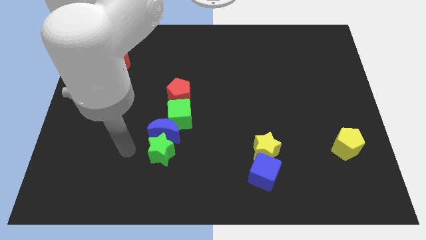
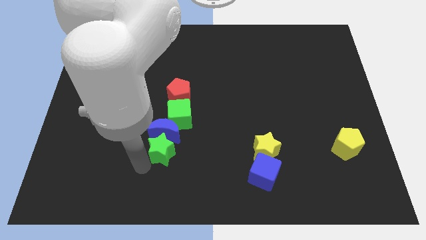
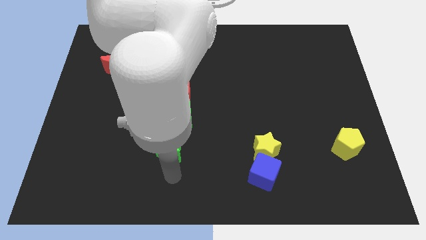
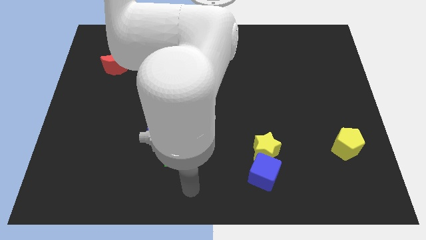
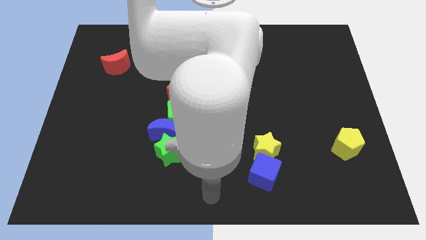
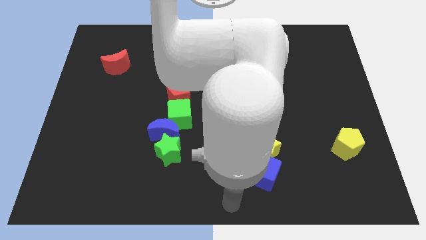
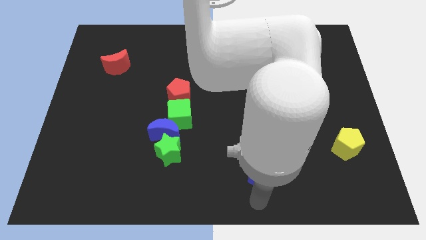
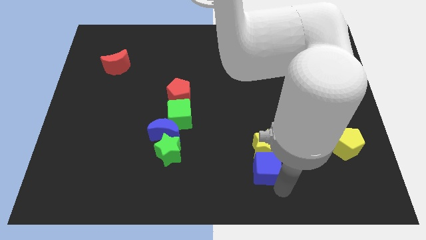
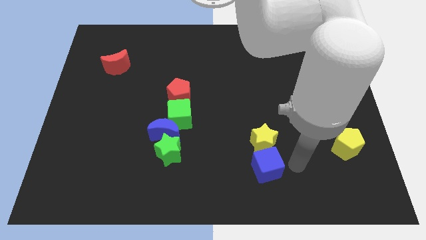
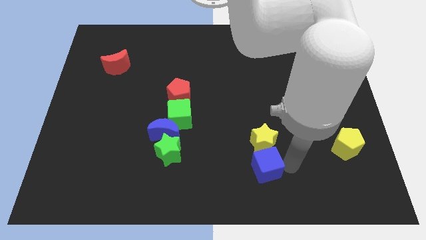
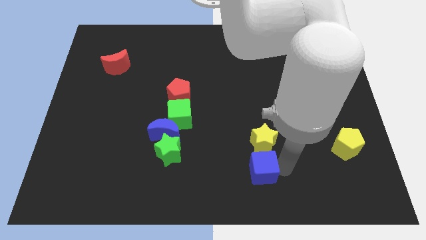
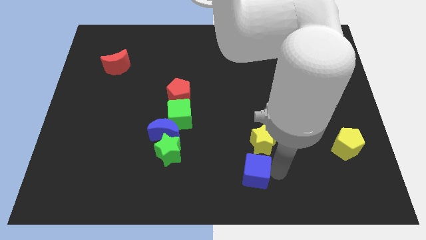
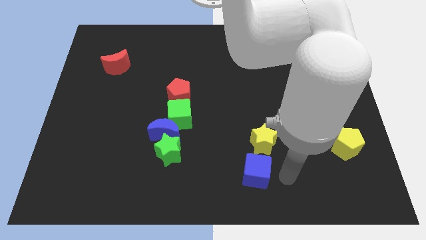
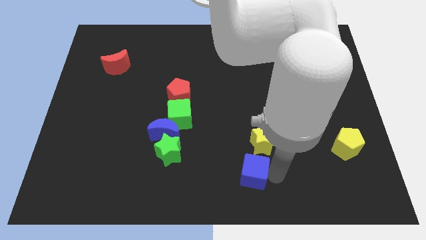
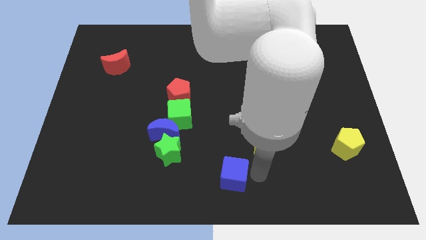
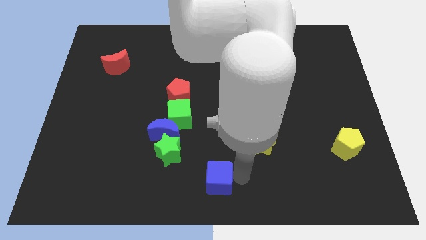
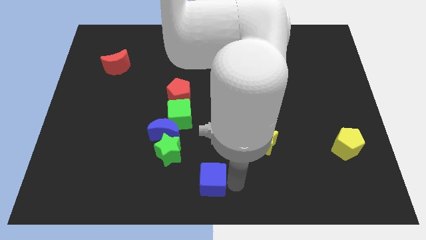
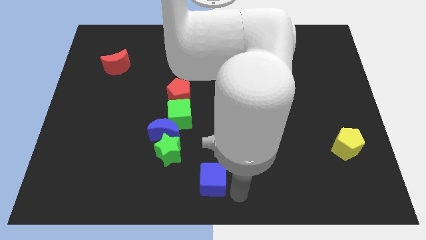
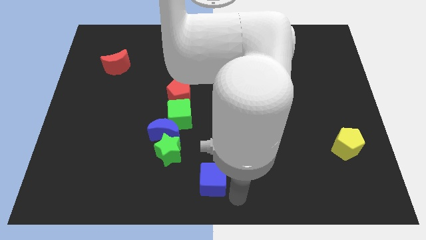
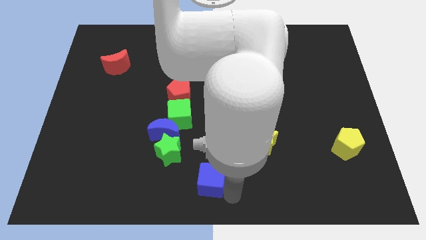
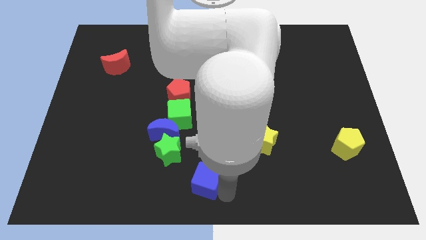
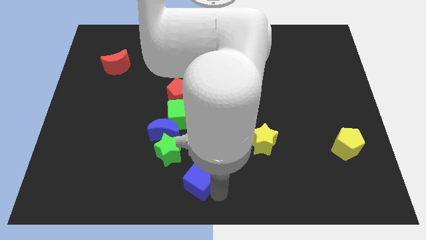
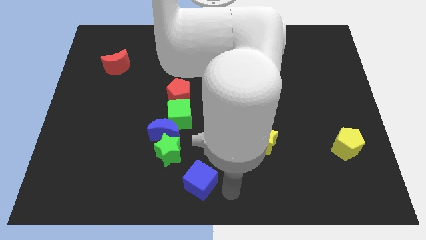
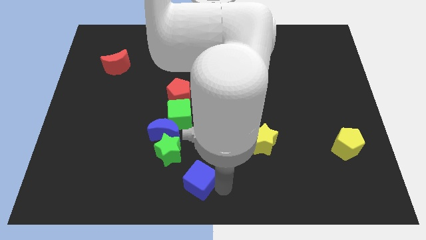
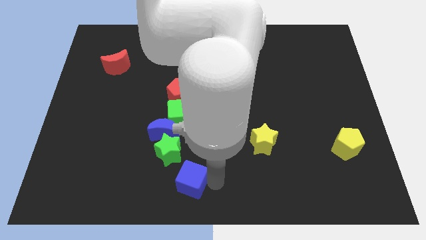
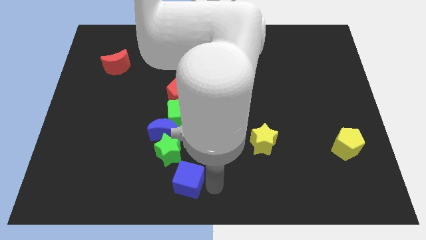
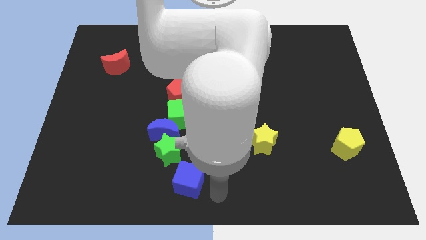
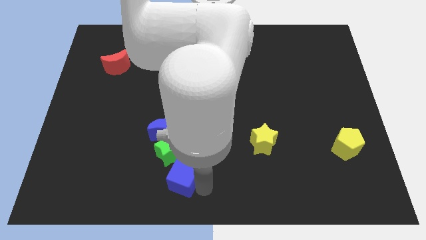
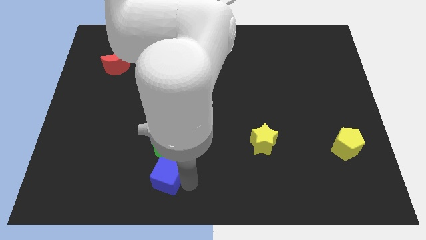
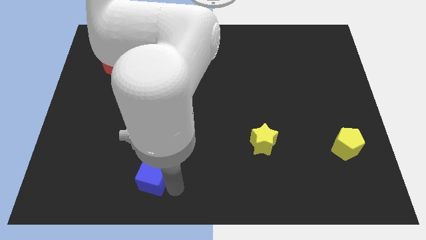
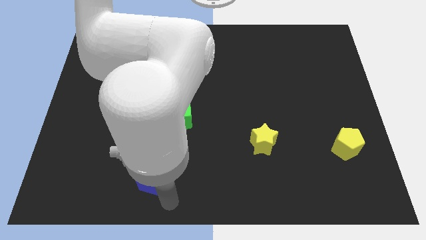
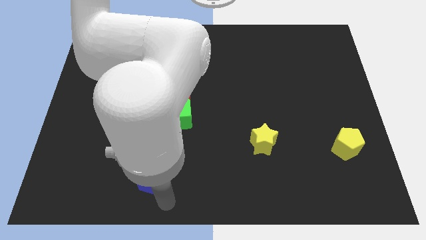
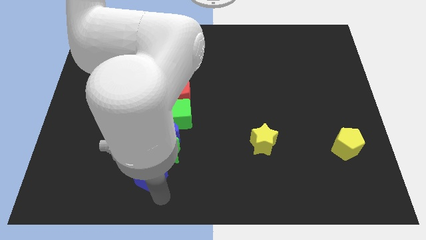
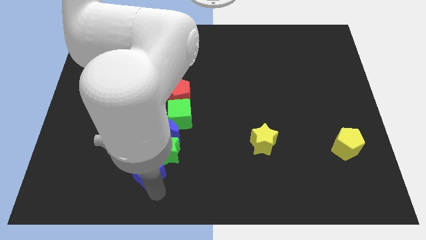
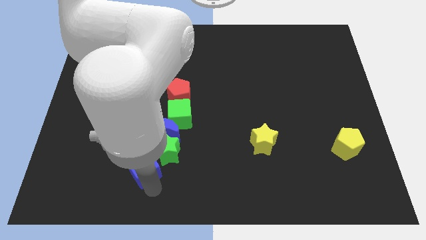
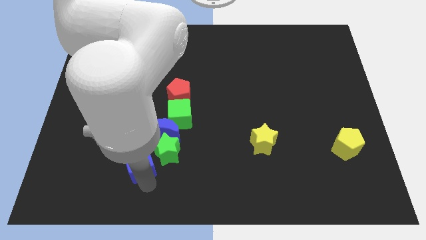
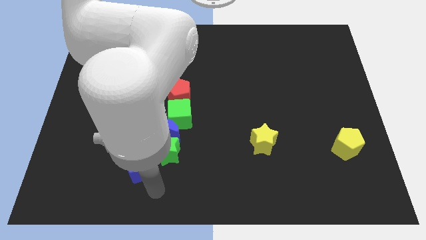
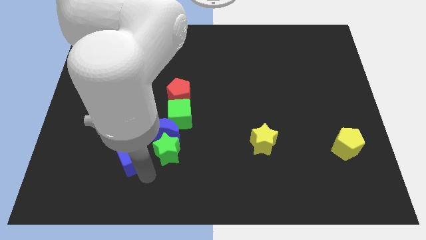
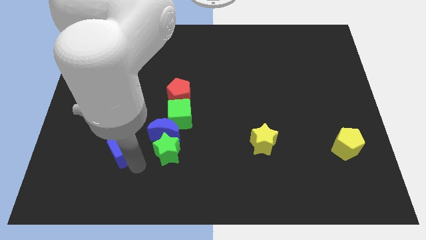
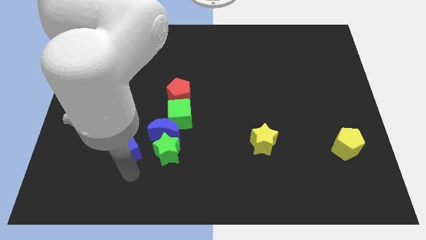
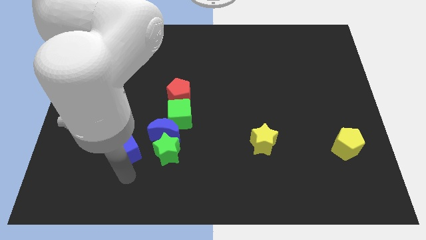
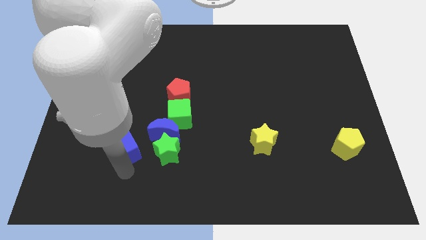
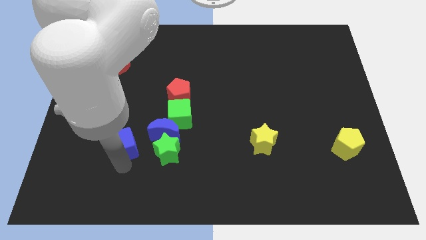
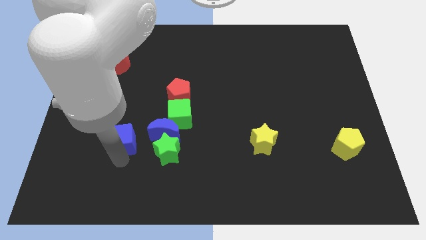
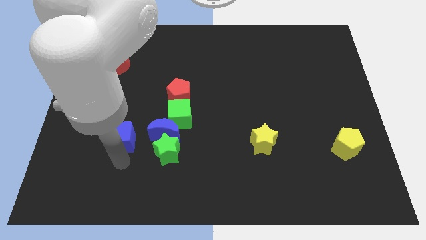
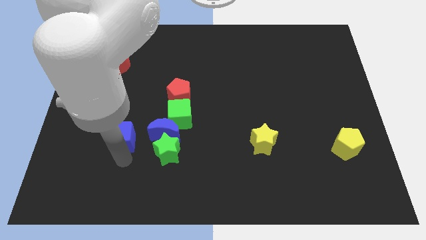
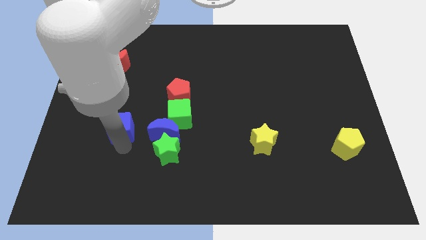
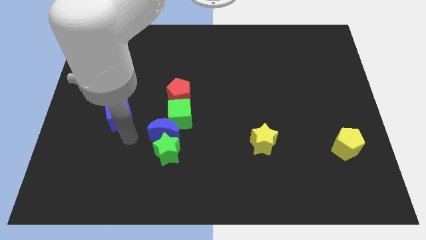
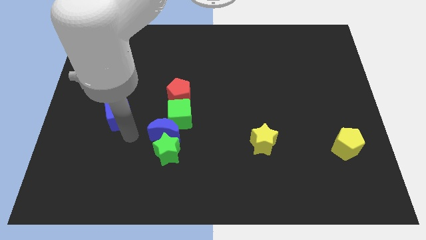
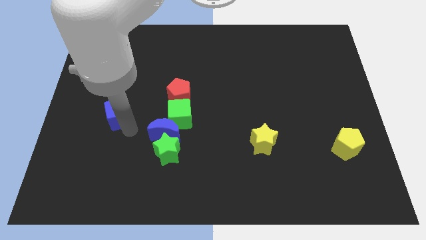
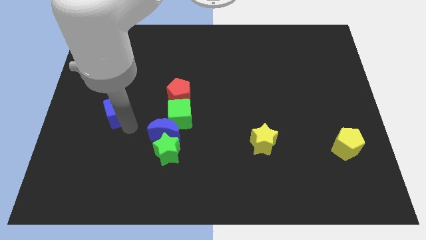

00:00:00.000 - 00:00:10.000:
push the blue cube below the red moon

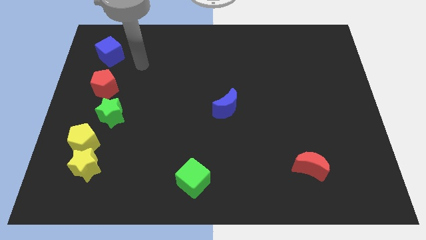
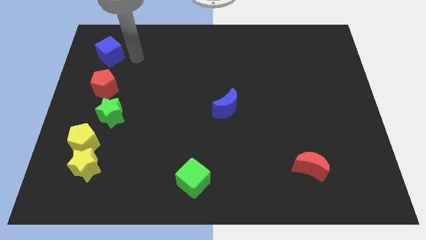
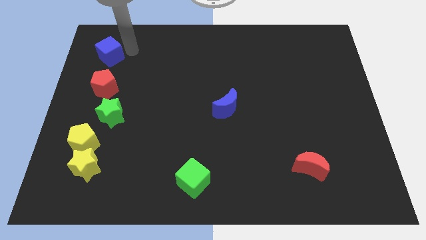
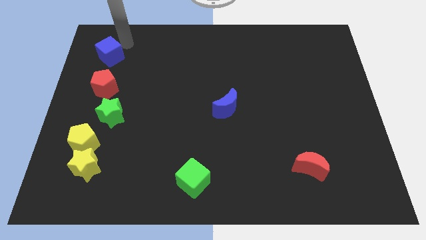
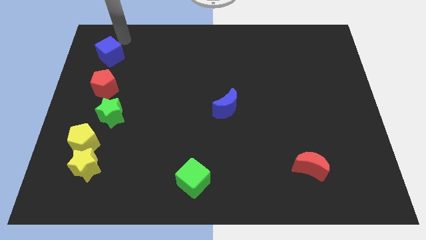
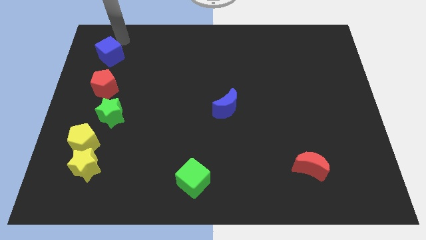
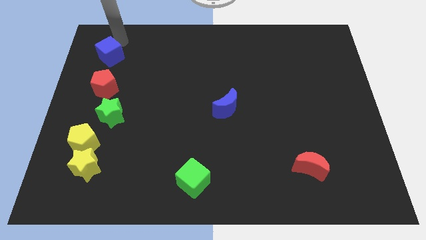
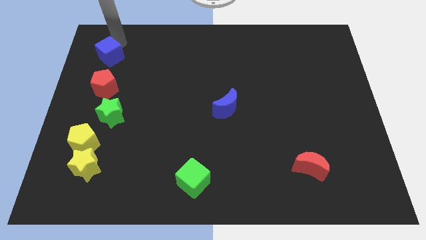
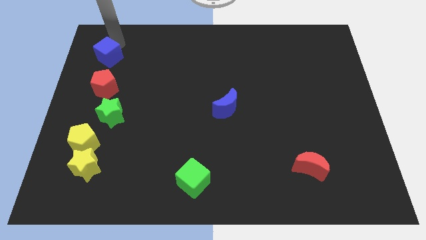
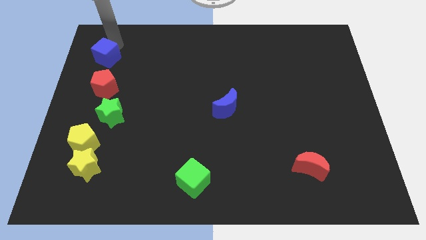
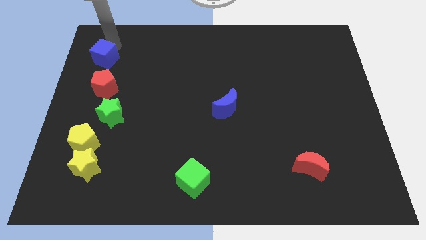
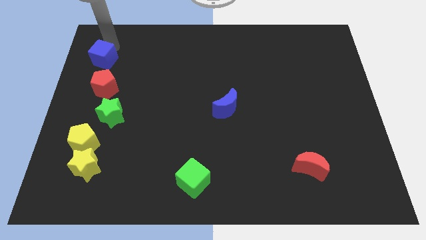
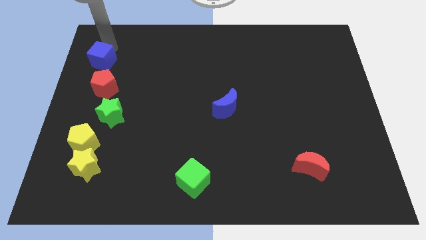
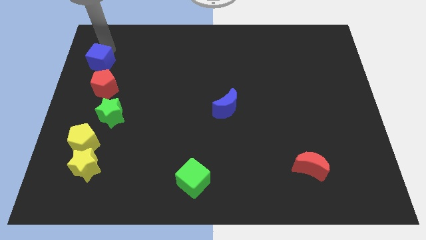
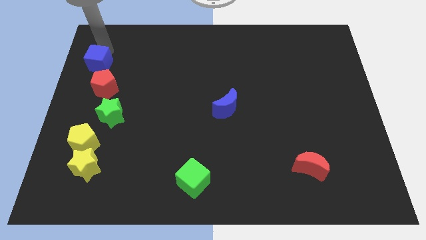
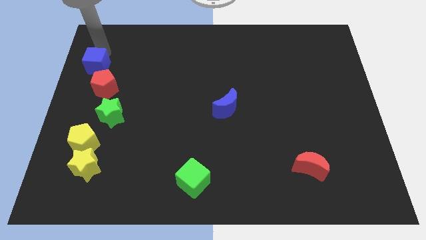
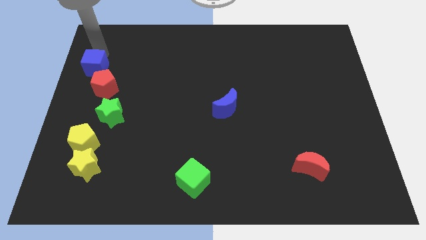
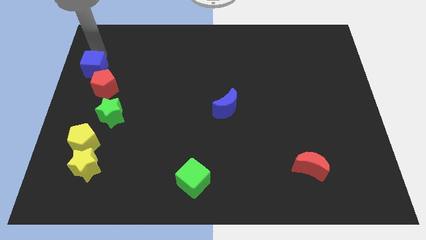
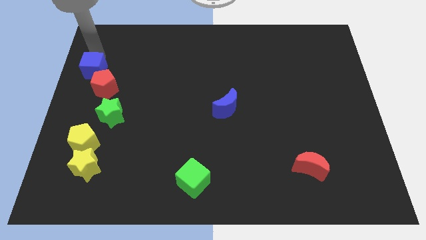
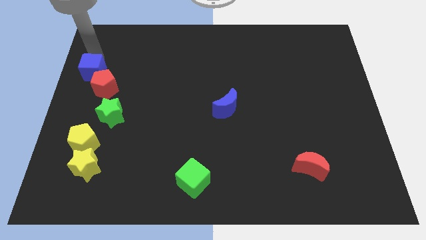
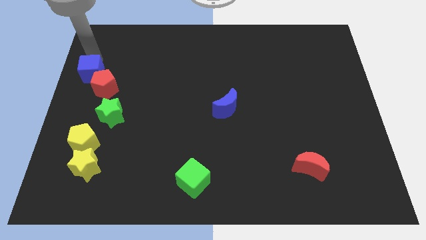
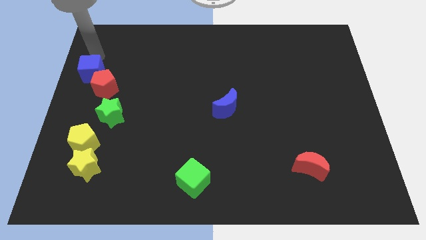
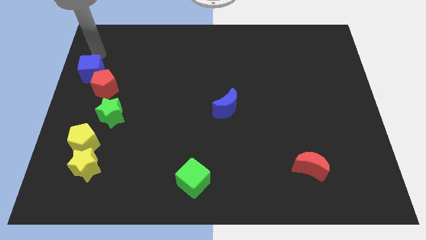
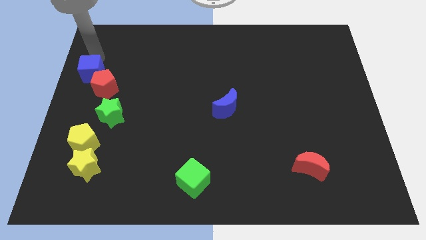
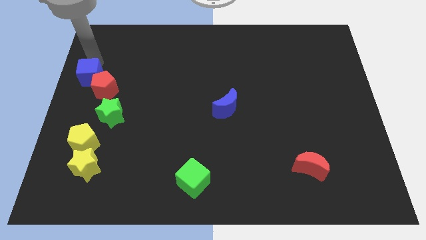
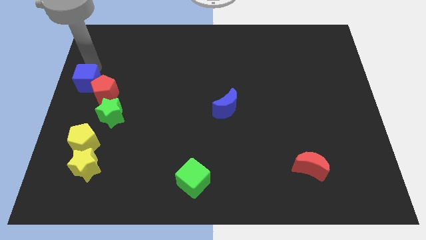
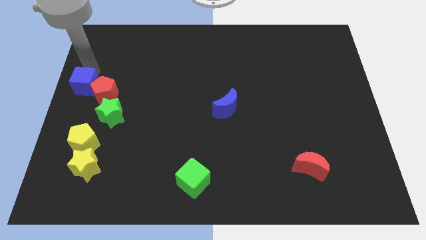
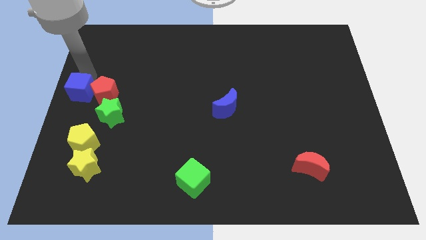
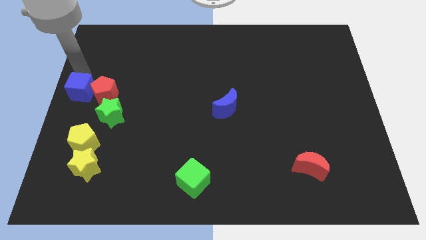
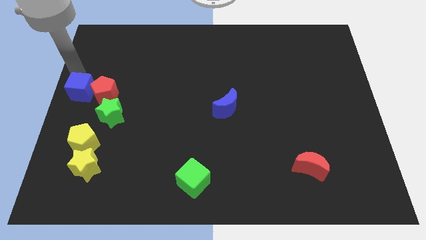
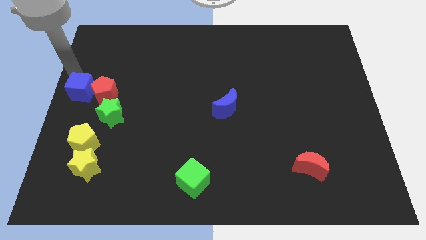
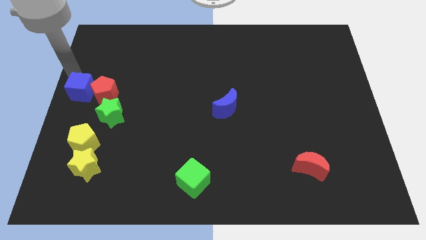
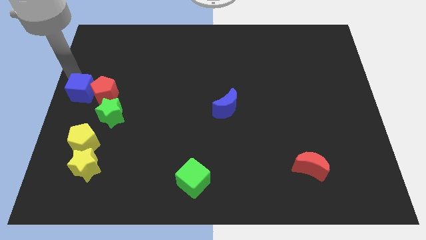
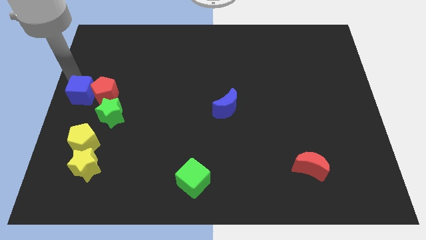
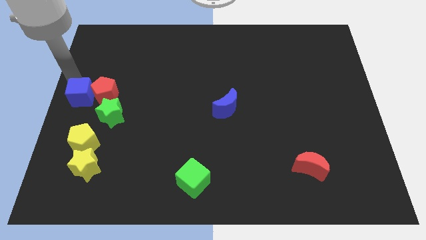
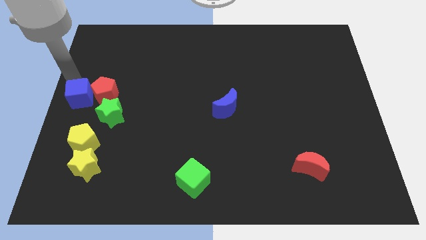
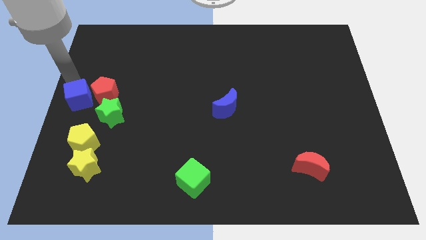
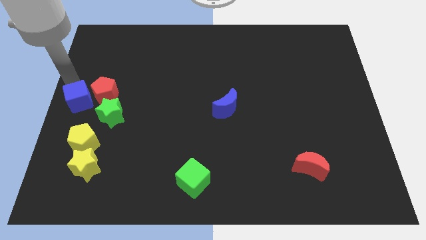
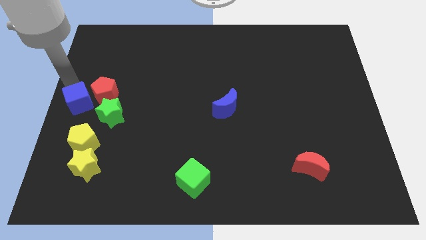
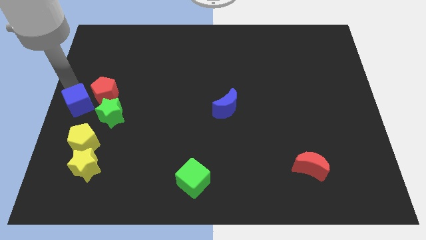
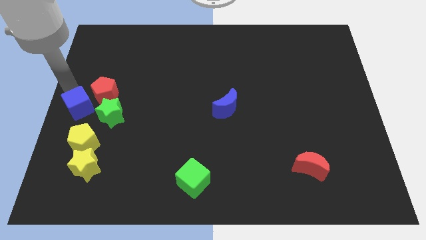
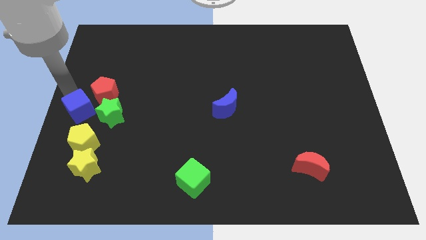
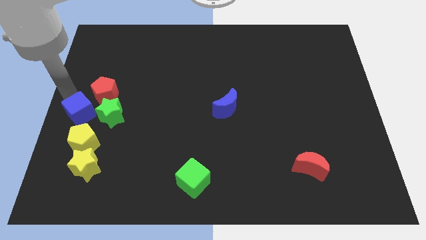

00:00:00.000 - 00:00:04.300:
slide the blue cube to the bottom of the red pentagon
